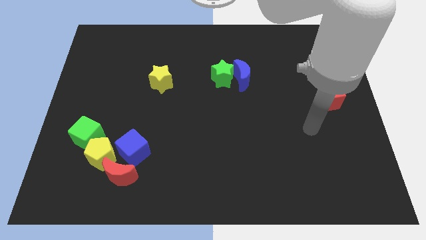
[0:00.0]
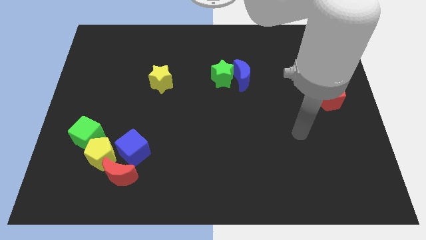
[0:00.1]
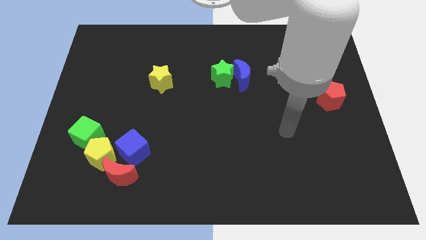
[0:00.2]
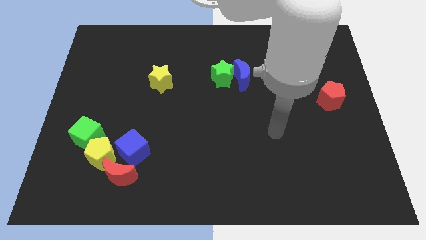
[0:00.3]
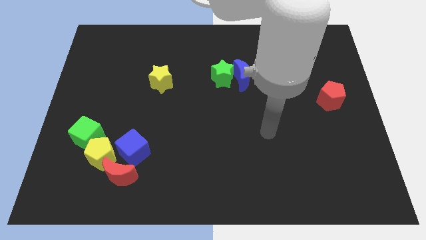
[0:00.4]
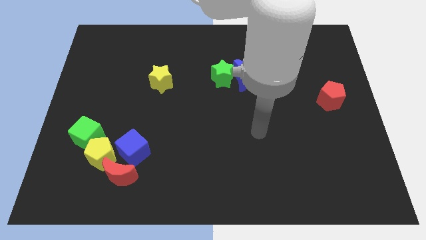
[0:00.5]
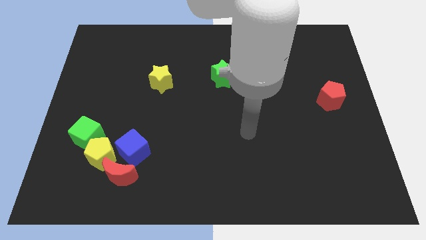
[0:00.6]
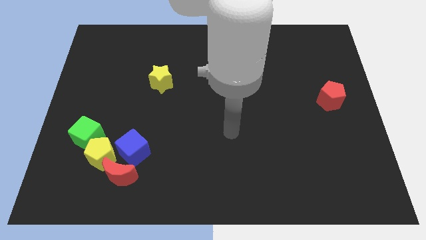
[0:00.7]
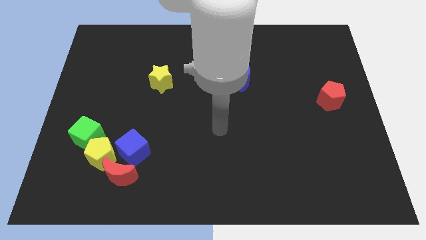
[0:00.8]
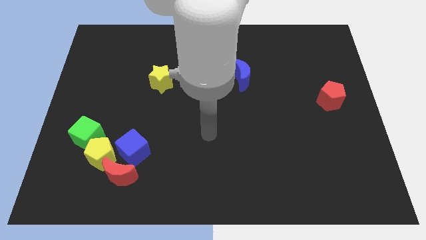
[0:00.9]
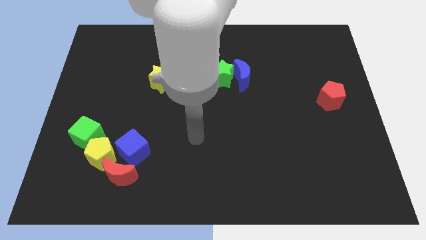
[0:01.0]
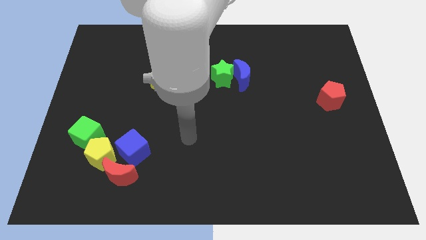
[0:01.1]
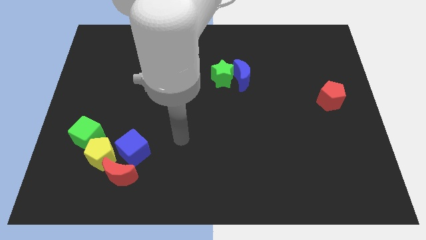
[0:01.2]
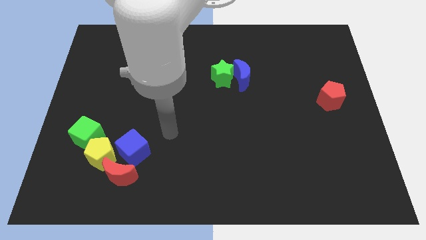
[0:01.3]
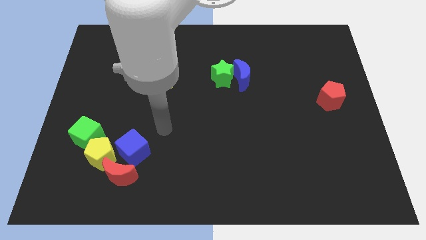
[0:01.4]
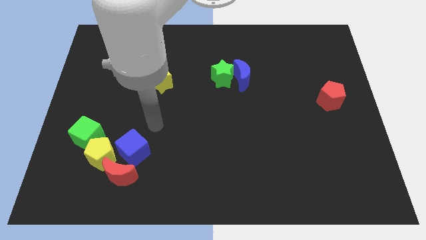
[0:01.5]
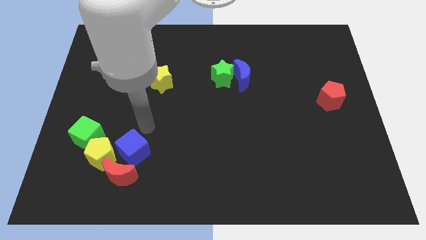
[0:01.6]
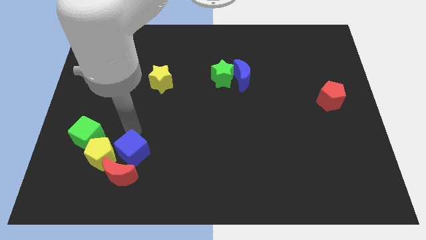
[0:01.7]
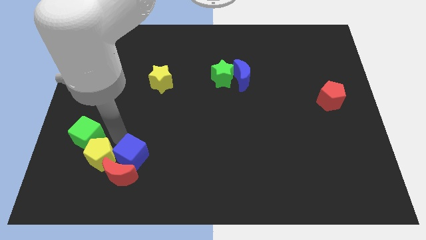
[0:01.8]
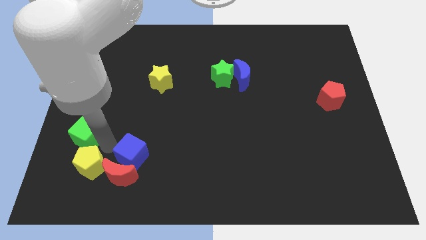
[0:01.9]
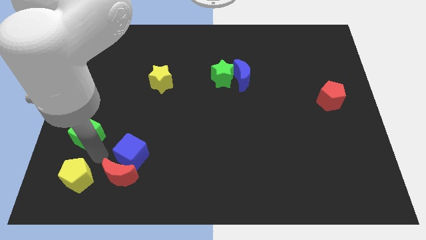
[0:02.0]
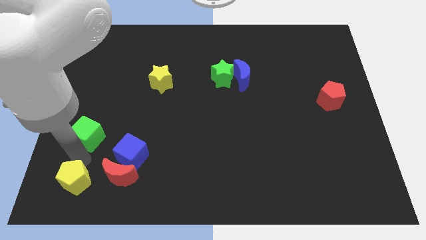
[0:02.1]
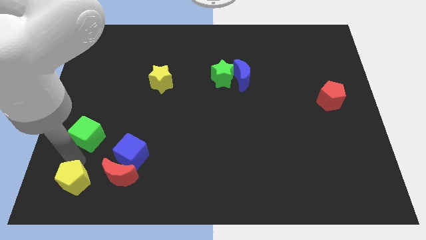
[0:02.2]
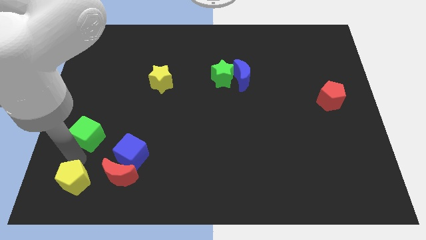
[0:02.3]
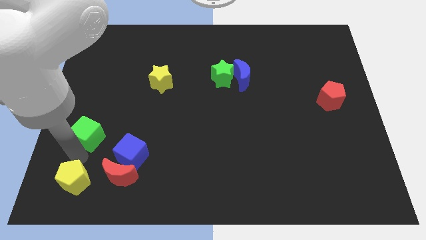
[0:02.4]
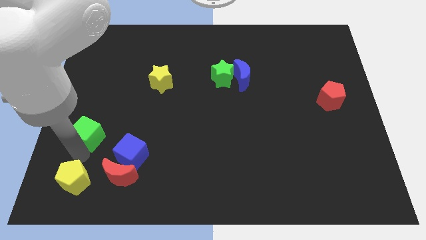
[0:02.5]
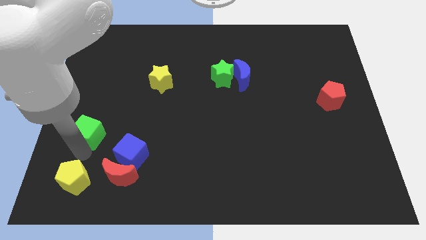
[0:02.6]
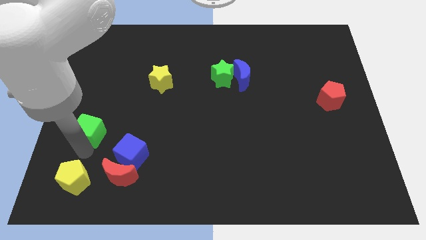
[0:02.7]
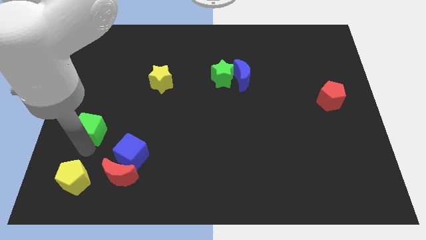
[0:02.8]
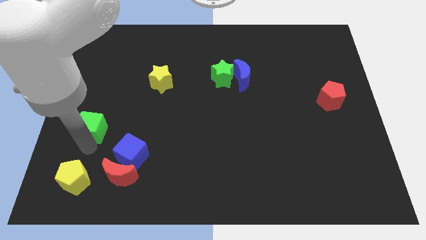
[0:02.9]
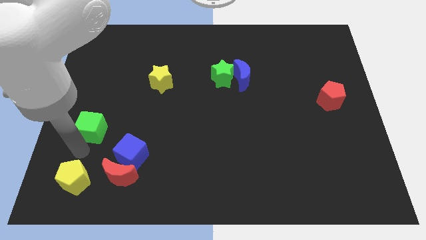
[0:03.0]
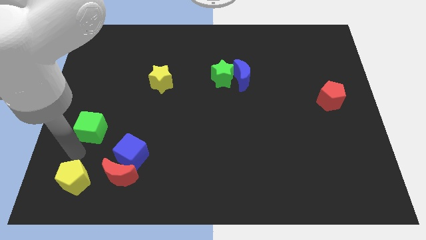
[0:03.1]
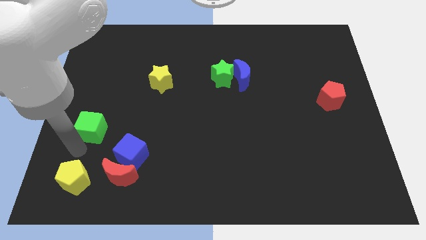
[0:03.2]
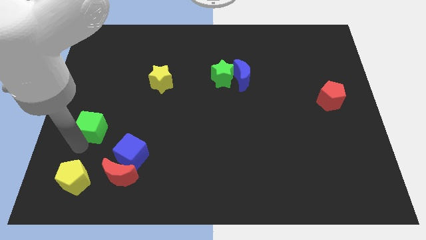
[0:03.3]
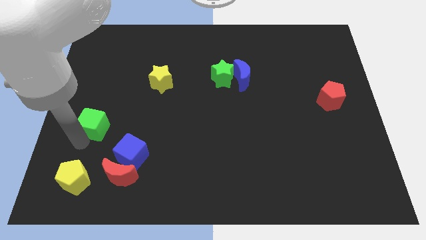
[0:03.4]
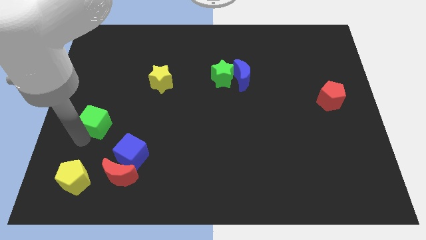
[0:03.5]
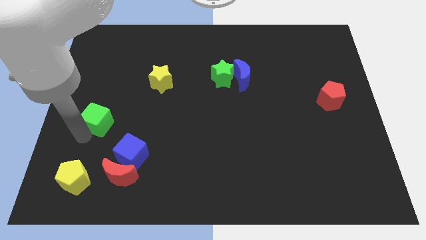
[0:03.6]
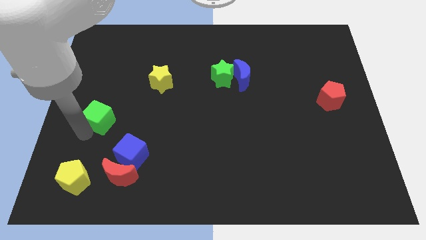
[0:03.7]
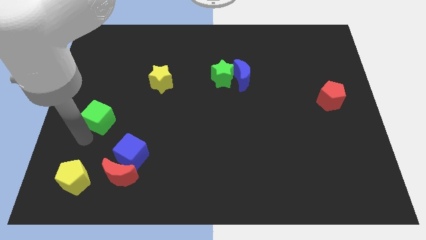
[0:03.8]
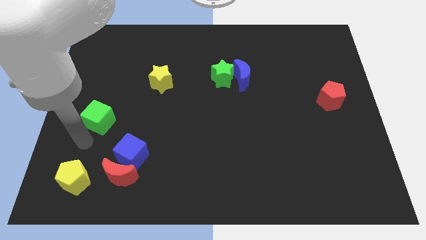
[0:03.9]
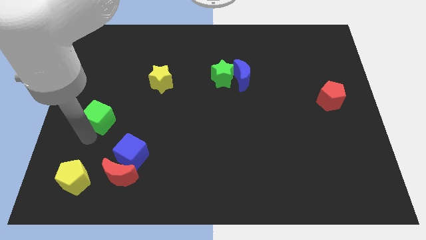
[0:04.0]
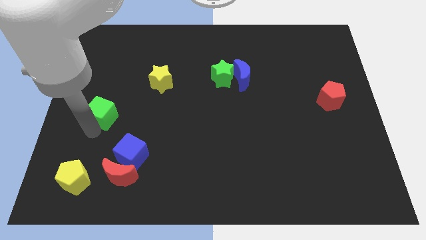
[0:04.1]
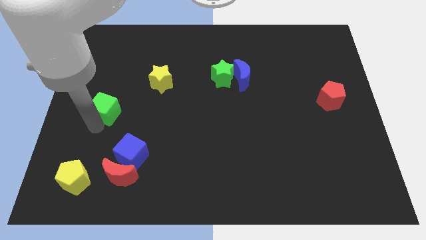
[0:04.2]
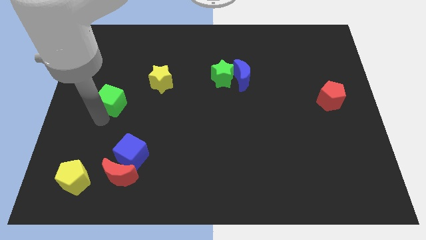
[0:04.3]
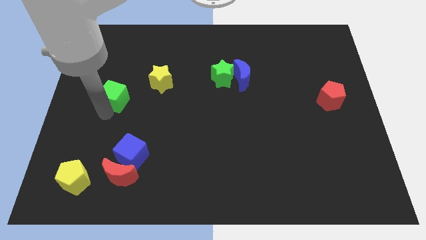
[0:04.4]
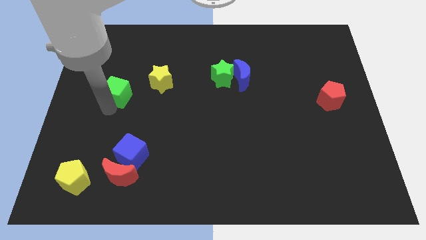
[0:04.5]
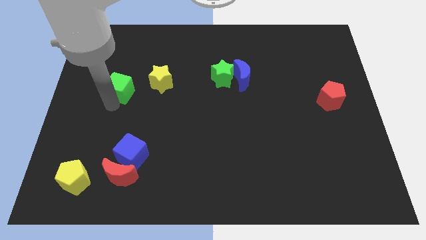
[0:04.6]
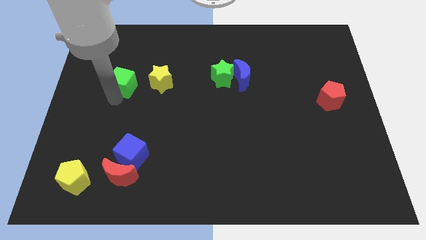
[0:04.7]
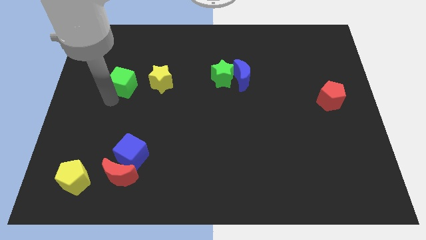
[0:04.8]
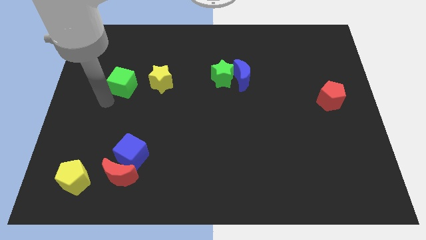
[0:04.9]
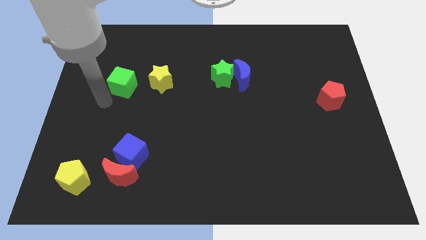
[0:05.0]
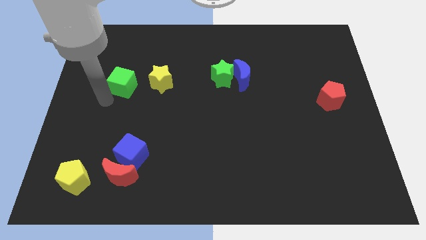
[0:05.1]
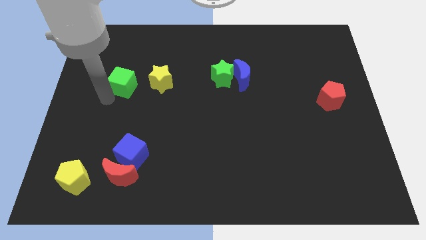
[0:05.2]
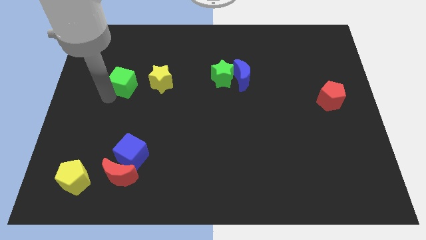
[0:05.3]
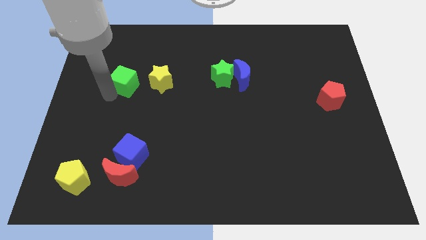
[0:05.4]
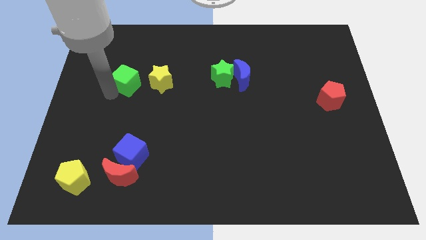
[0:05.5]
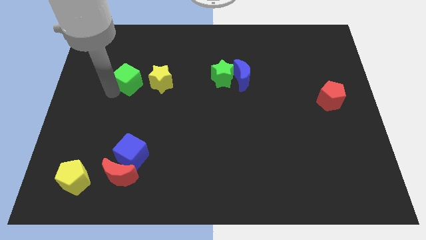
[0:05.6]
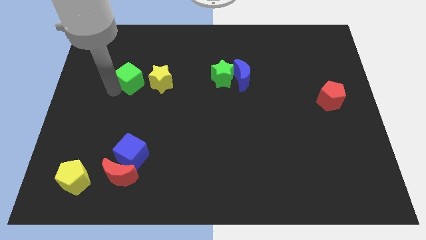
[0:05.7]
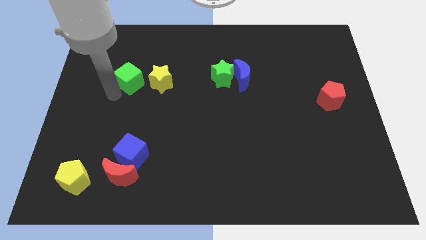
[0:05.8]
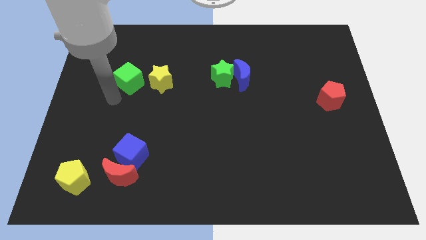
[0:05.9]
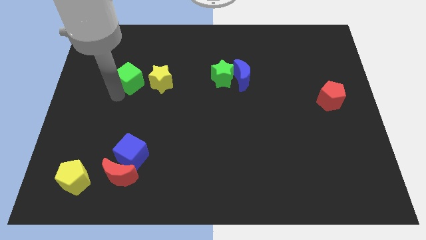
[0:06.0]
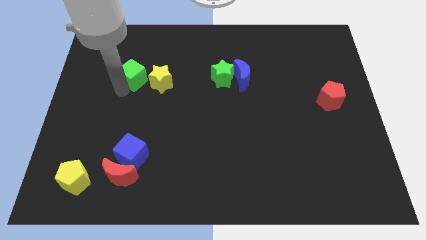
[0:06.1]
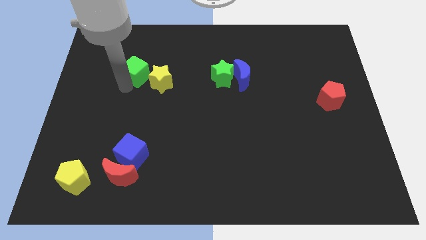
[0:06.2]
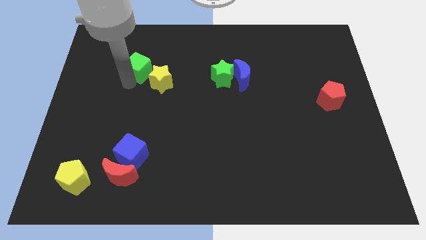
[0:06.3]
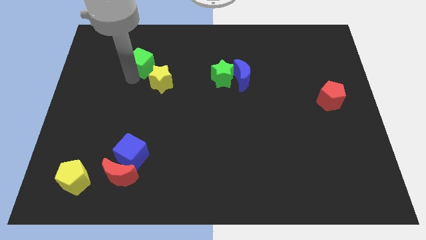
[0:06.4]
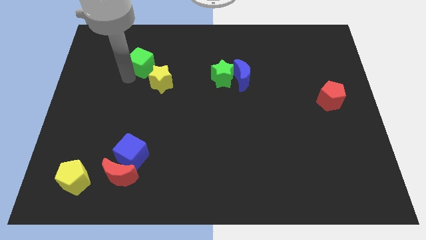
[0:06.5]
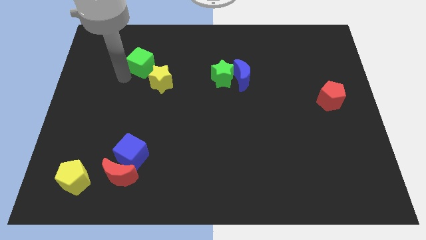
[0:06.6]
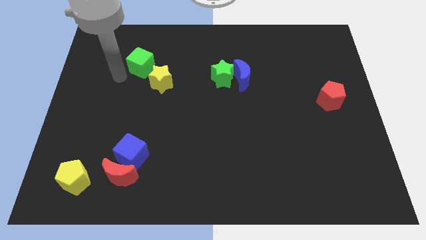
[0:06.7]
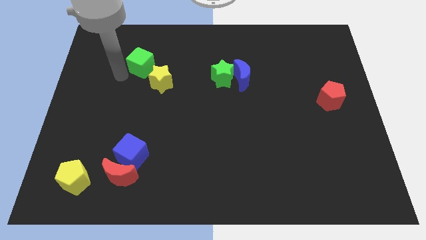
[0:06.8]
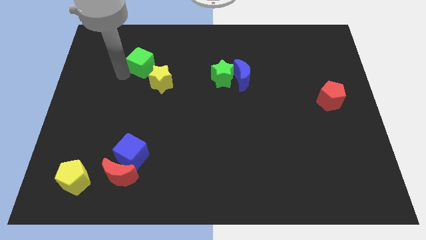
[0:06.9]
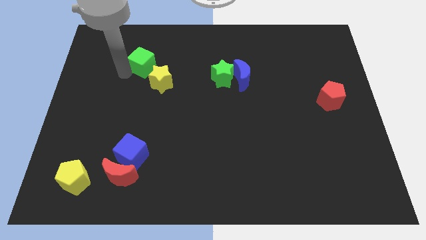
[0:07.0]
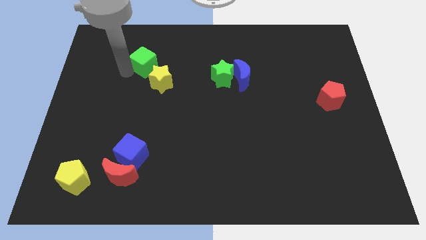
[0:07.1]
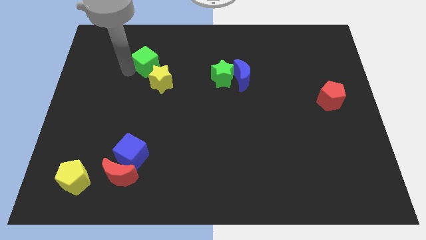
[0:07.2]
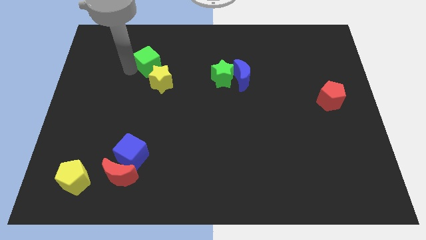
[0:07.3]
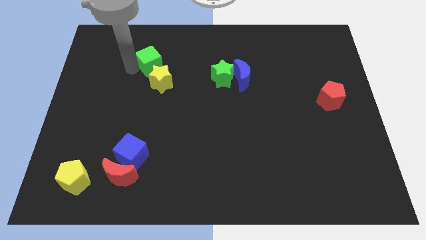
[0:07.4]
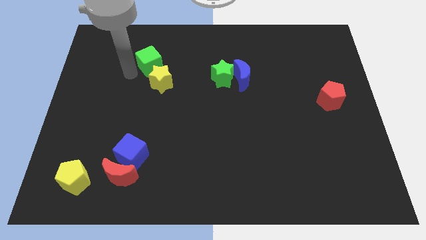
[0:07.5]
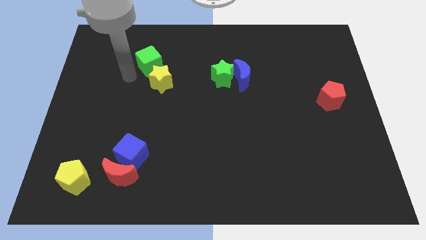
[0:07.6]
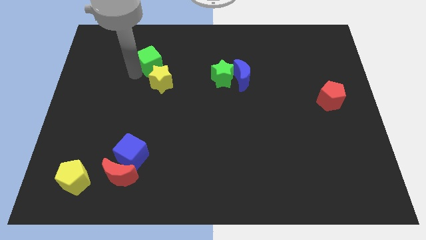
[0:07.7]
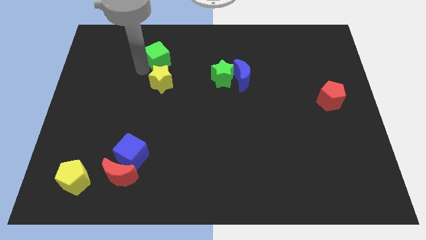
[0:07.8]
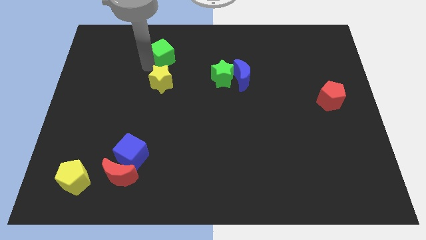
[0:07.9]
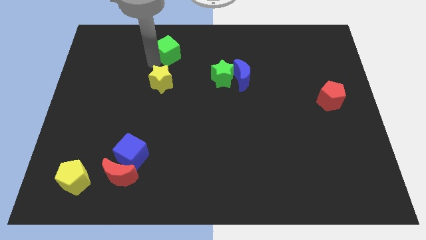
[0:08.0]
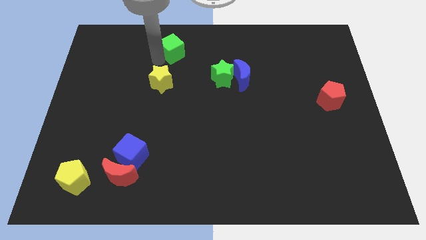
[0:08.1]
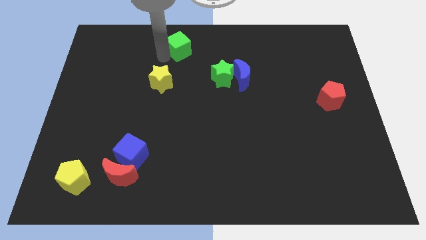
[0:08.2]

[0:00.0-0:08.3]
push the green cube to the top
